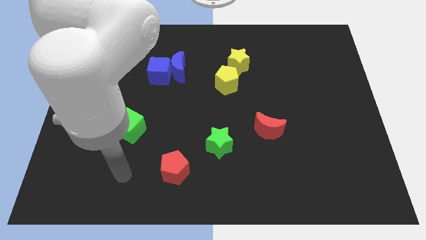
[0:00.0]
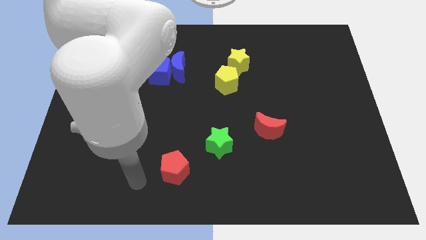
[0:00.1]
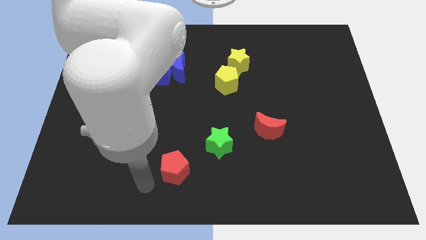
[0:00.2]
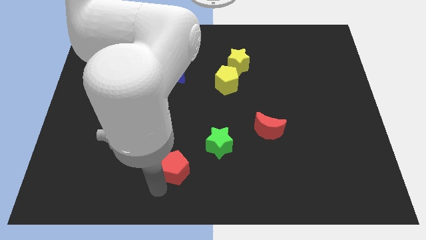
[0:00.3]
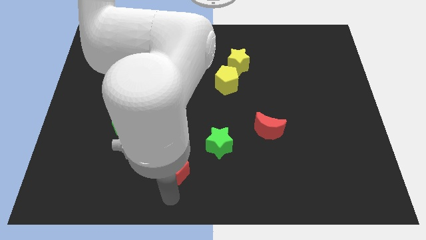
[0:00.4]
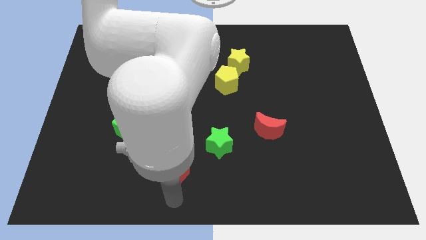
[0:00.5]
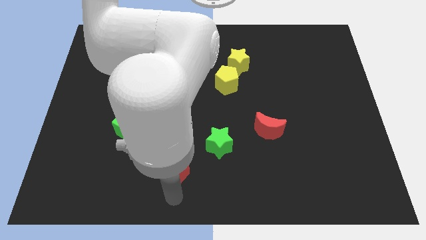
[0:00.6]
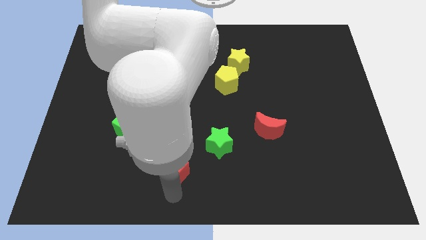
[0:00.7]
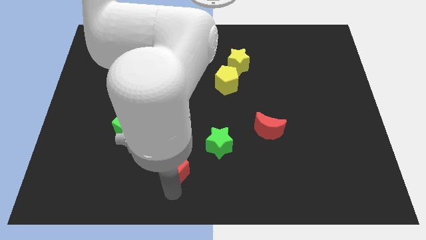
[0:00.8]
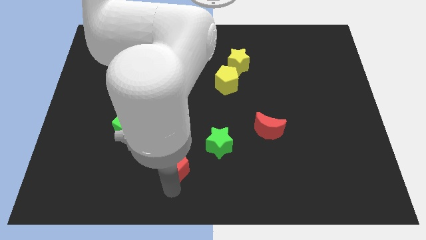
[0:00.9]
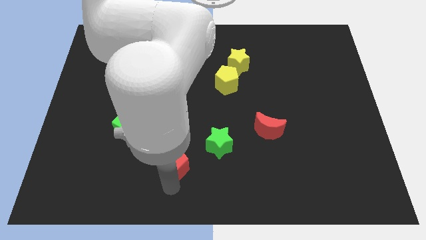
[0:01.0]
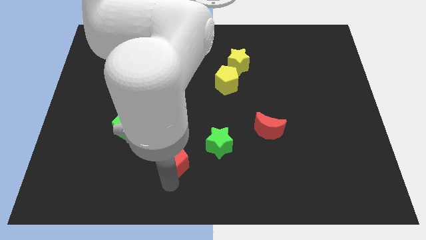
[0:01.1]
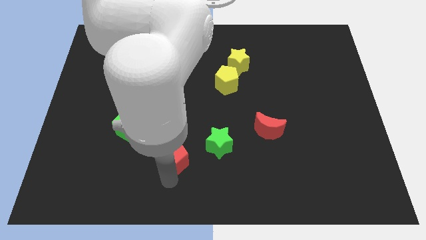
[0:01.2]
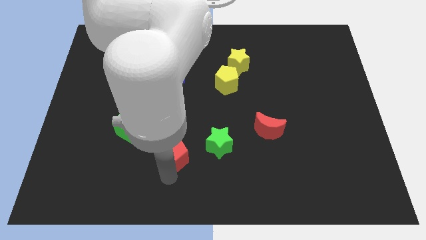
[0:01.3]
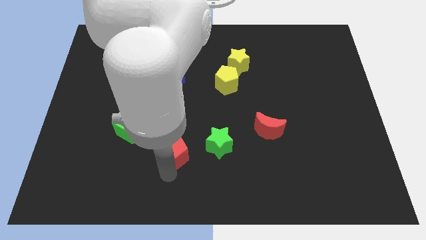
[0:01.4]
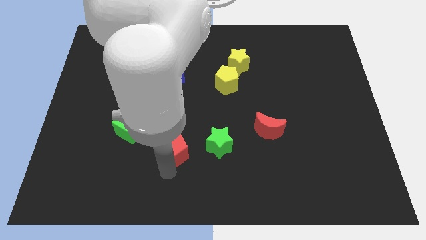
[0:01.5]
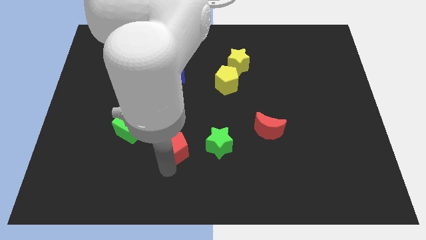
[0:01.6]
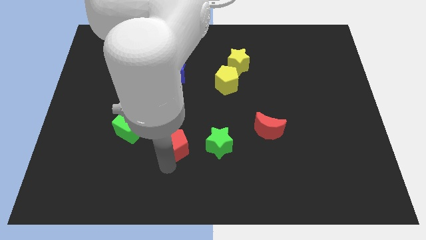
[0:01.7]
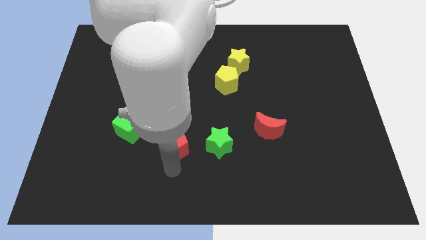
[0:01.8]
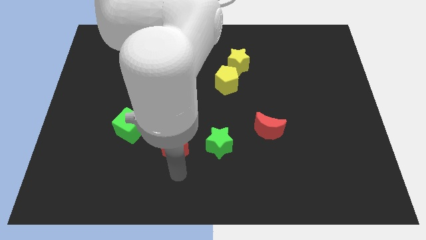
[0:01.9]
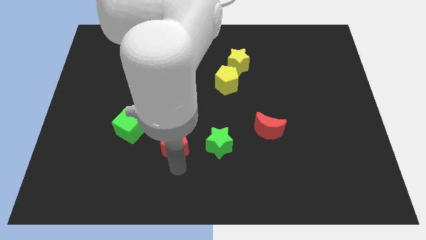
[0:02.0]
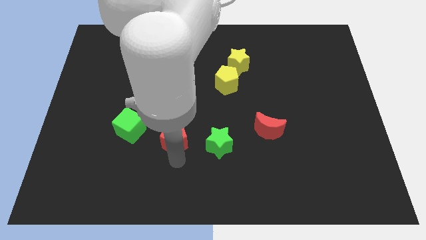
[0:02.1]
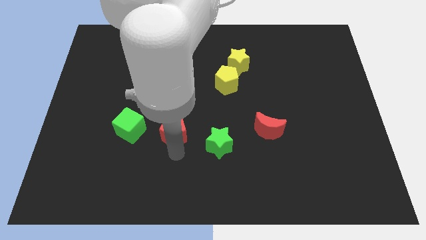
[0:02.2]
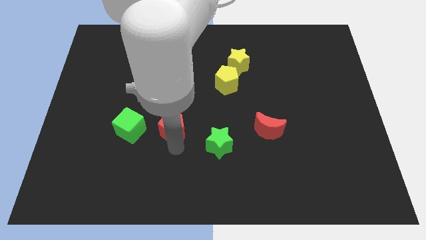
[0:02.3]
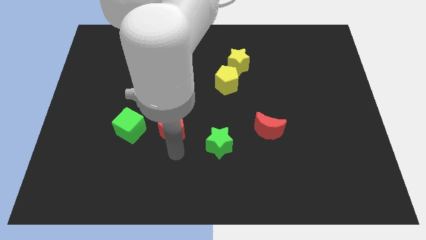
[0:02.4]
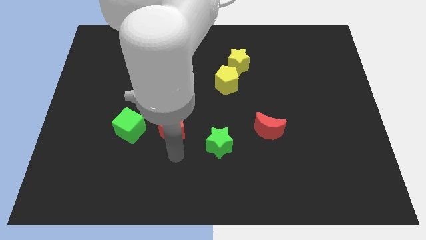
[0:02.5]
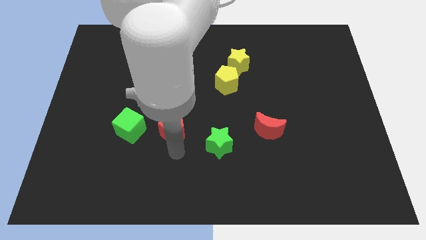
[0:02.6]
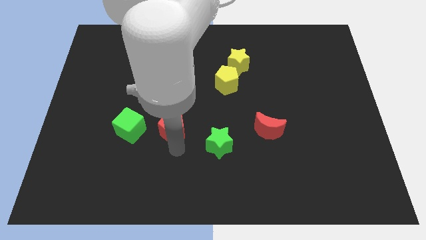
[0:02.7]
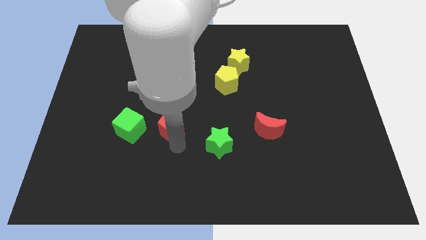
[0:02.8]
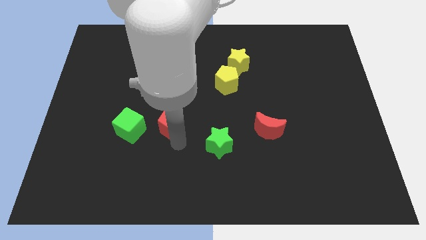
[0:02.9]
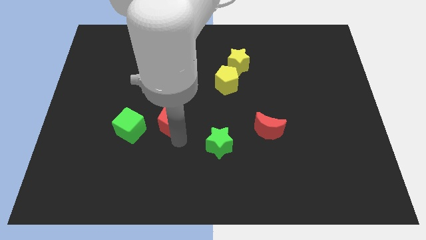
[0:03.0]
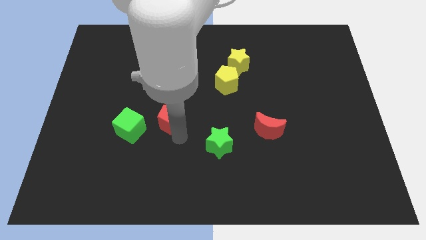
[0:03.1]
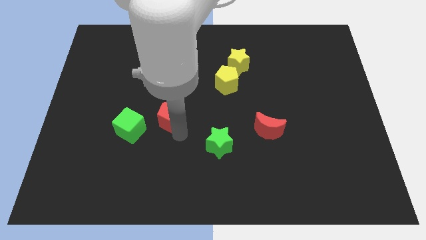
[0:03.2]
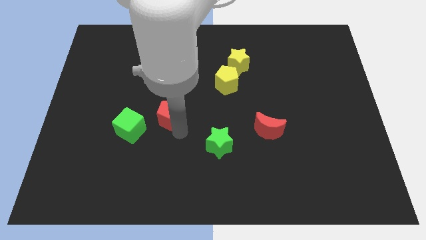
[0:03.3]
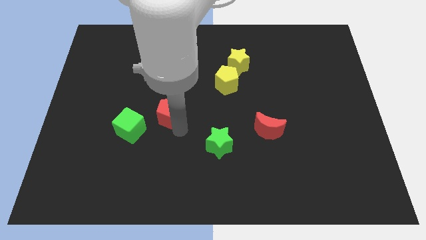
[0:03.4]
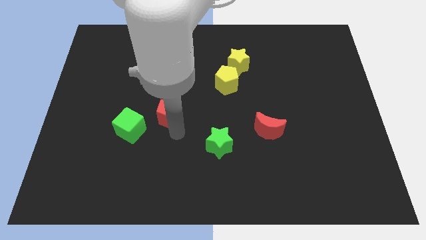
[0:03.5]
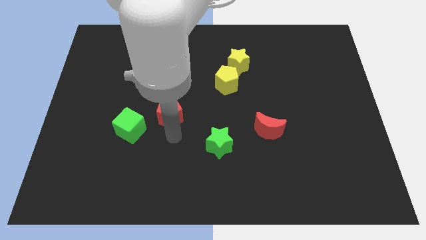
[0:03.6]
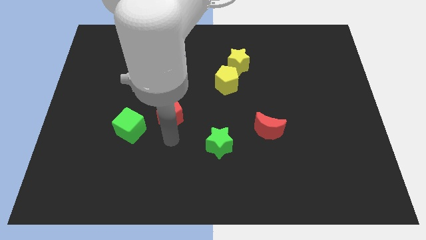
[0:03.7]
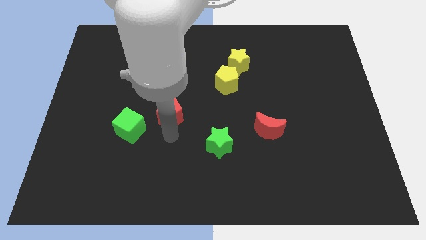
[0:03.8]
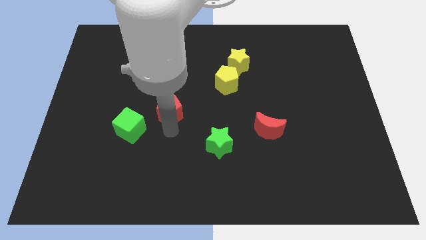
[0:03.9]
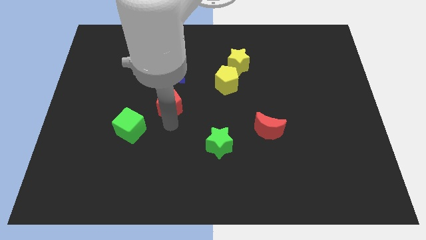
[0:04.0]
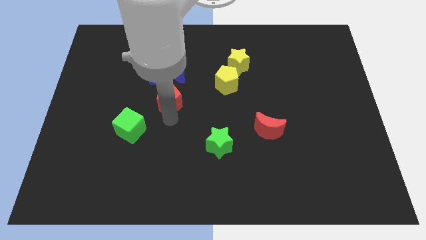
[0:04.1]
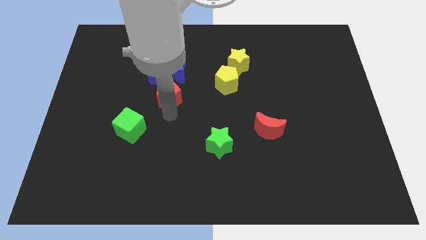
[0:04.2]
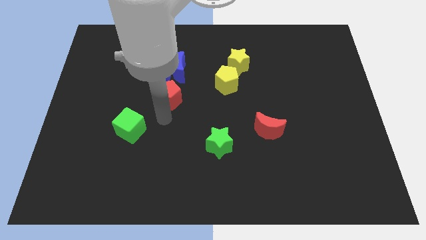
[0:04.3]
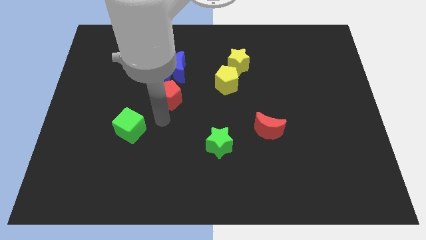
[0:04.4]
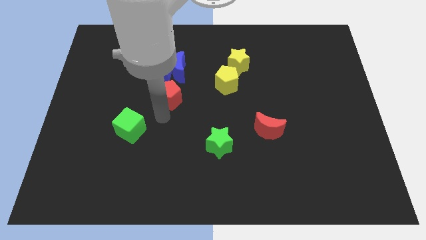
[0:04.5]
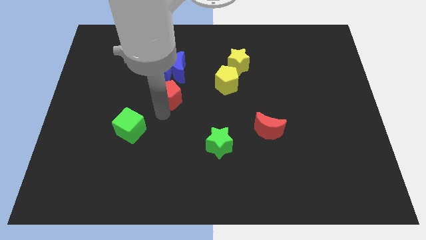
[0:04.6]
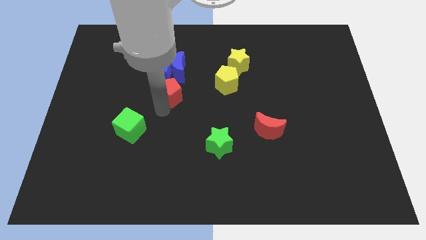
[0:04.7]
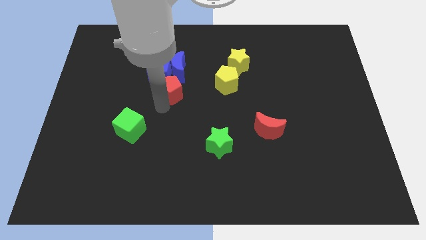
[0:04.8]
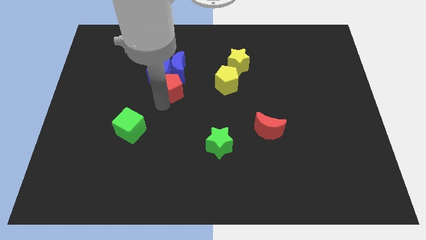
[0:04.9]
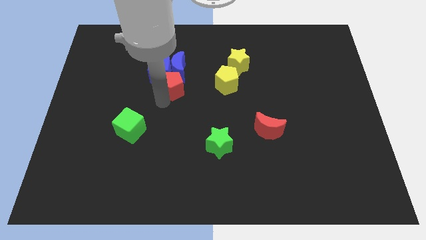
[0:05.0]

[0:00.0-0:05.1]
put the red pentagon to the blue moon

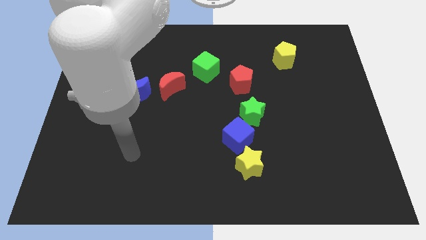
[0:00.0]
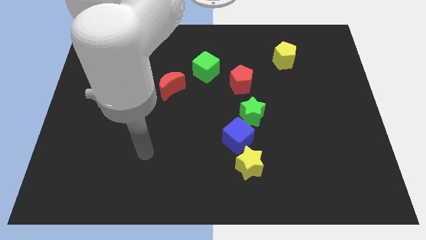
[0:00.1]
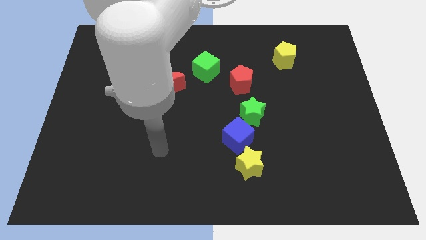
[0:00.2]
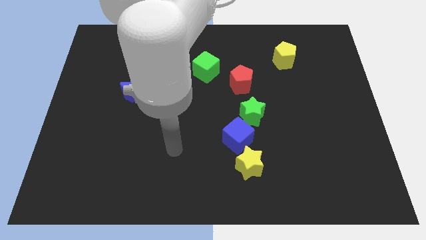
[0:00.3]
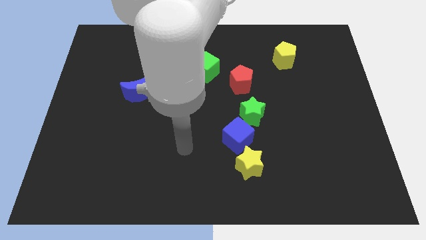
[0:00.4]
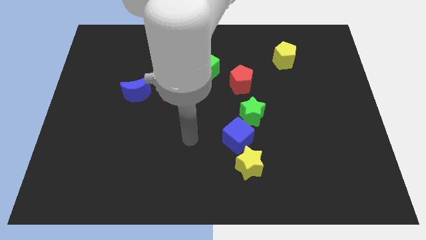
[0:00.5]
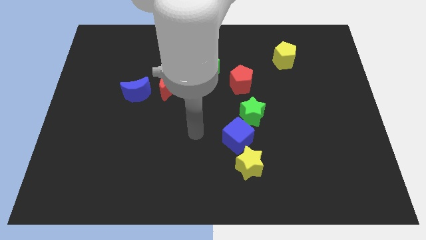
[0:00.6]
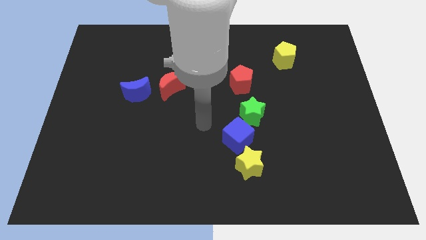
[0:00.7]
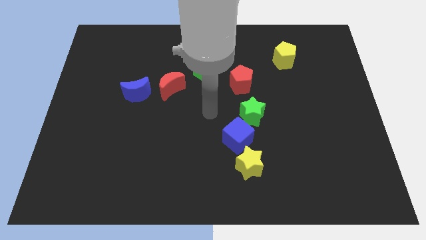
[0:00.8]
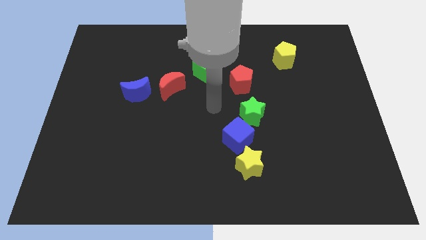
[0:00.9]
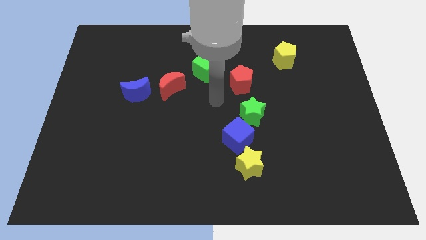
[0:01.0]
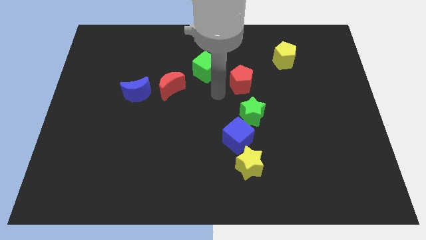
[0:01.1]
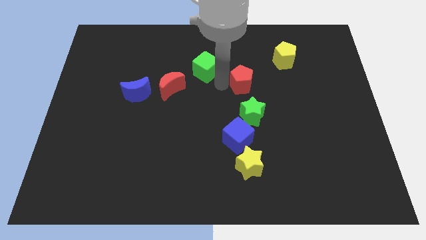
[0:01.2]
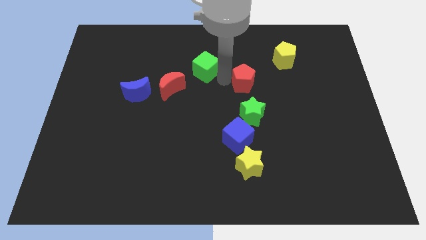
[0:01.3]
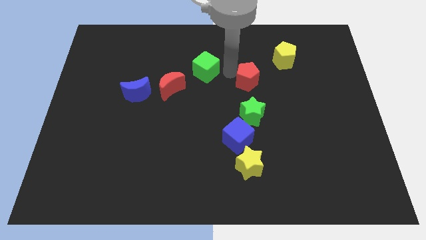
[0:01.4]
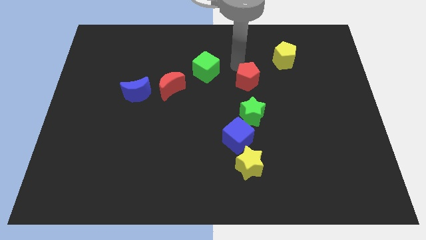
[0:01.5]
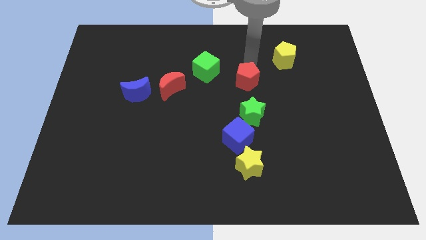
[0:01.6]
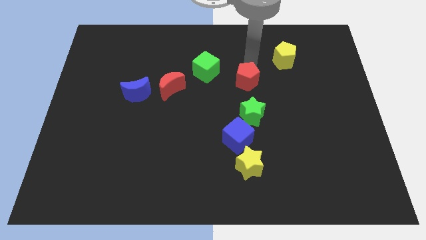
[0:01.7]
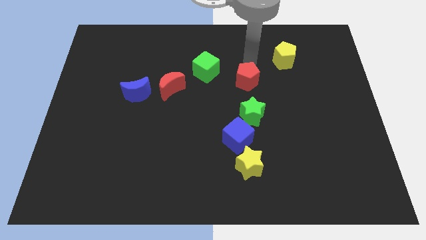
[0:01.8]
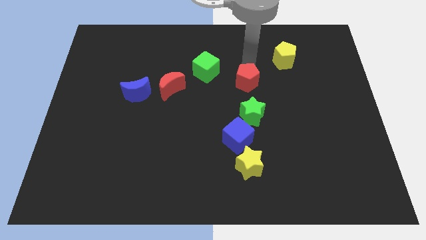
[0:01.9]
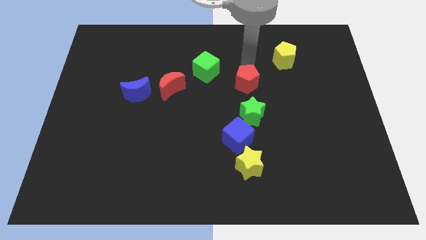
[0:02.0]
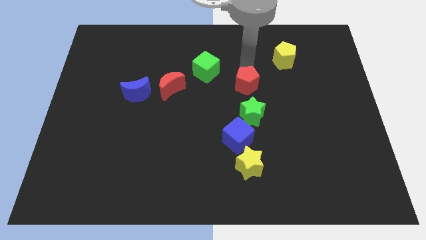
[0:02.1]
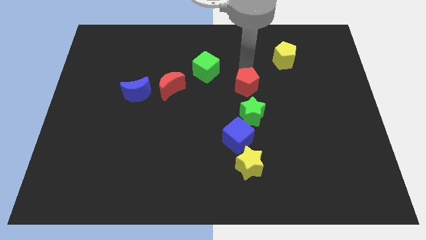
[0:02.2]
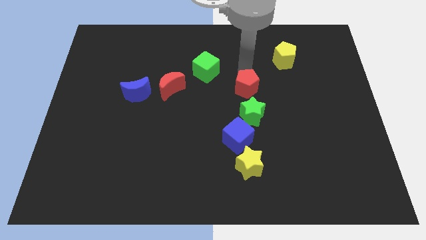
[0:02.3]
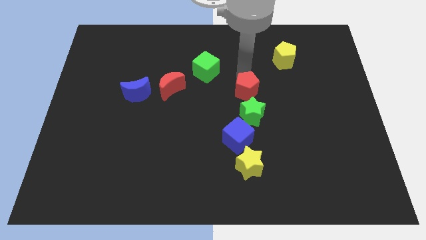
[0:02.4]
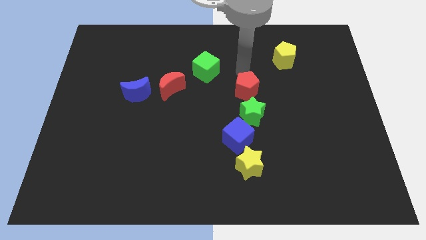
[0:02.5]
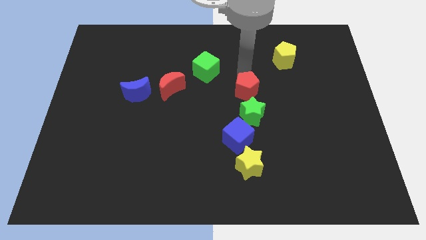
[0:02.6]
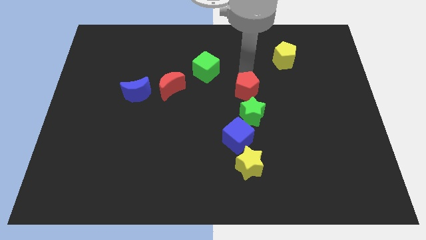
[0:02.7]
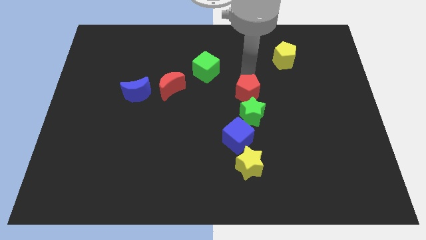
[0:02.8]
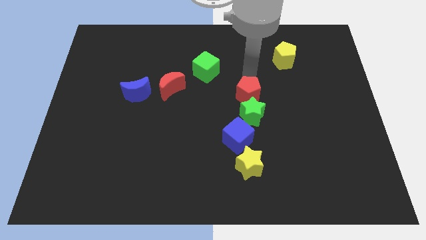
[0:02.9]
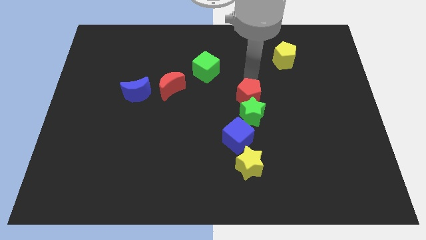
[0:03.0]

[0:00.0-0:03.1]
put the red pentagon towards the green star

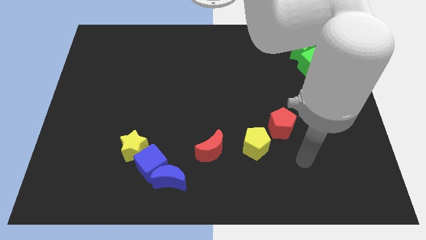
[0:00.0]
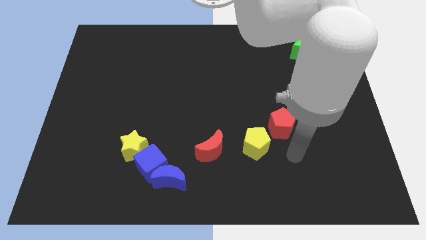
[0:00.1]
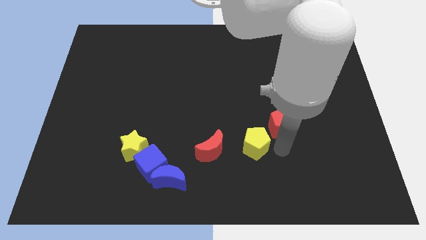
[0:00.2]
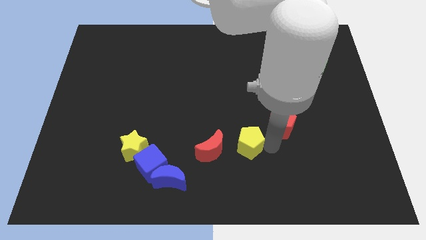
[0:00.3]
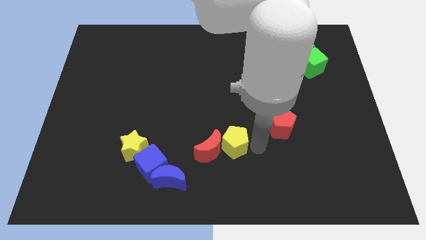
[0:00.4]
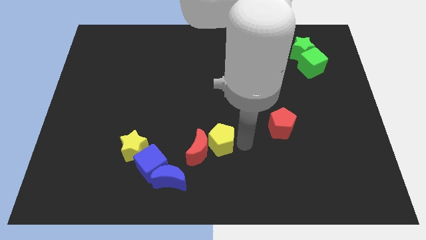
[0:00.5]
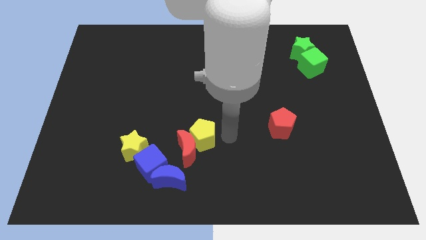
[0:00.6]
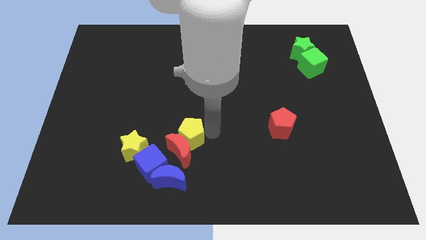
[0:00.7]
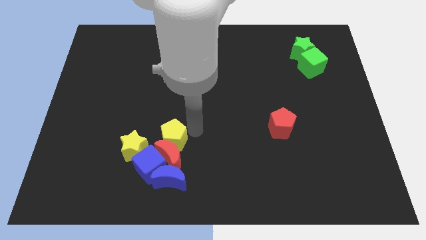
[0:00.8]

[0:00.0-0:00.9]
move the red moon next to the blue moon
